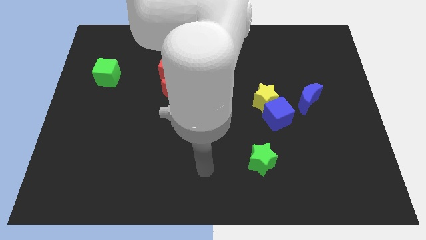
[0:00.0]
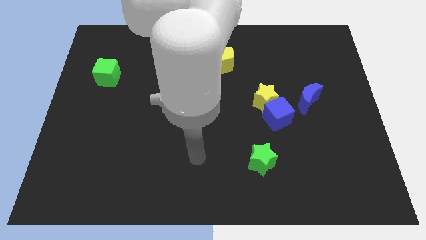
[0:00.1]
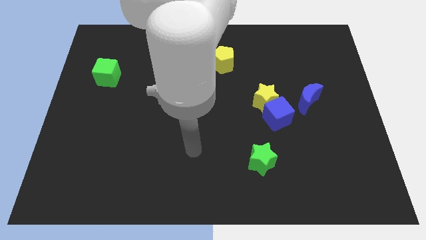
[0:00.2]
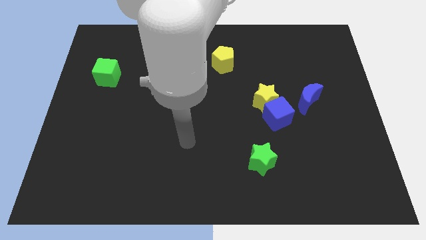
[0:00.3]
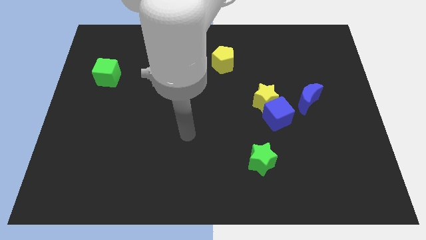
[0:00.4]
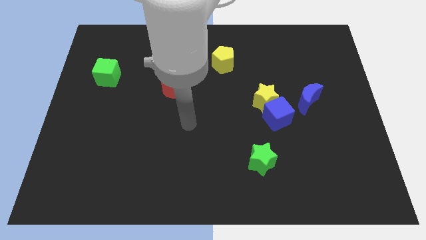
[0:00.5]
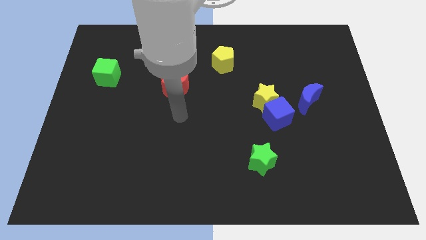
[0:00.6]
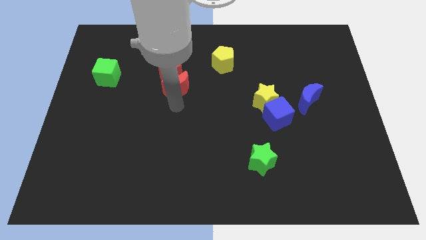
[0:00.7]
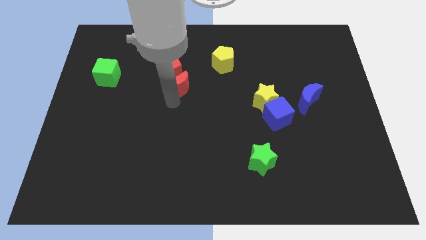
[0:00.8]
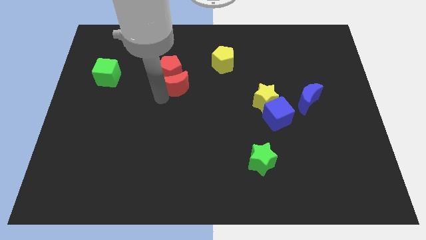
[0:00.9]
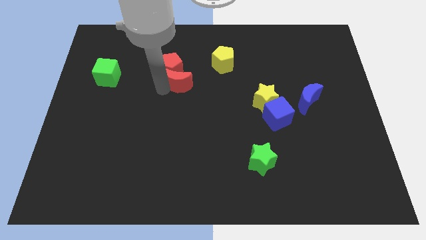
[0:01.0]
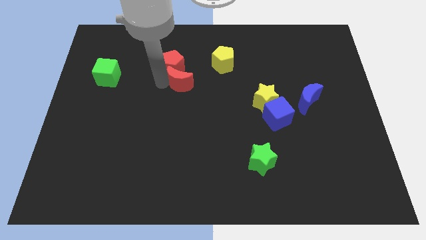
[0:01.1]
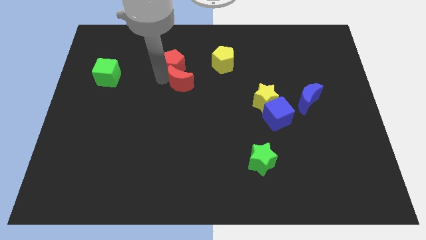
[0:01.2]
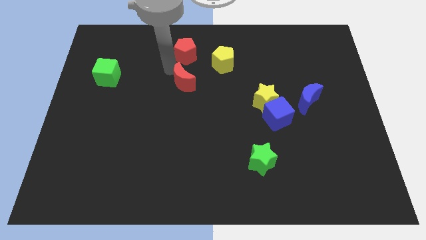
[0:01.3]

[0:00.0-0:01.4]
pull the red moon apart from the red pentagon

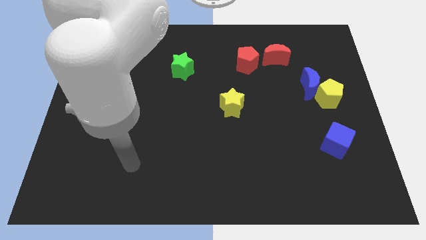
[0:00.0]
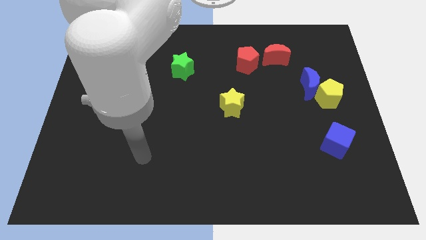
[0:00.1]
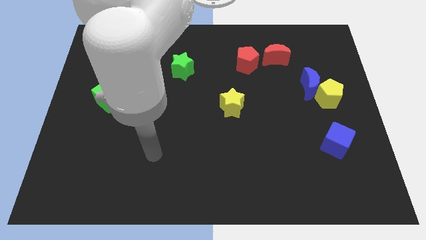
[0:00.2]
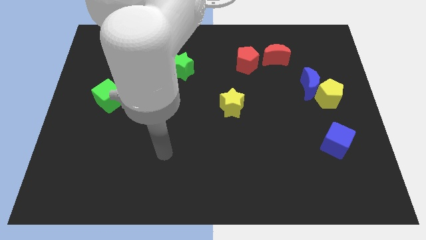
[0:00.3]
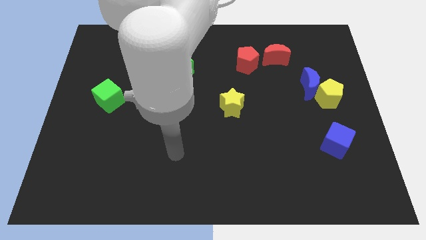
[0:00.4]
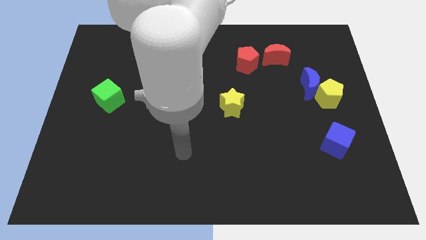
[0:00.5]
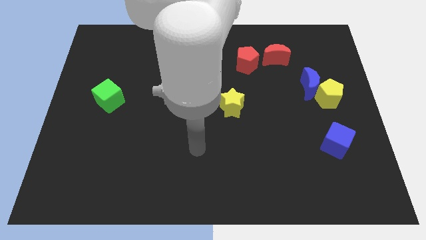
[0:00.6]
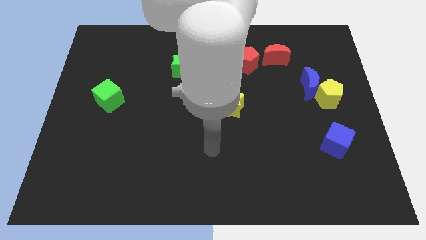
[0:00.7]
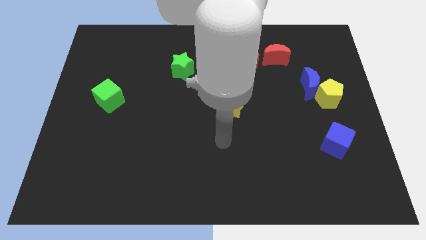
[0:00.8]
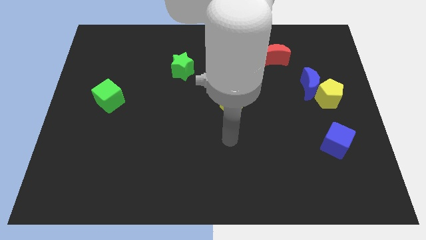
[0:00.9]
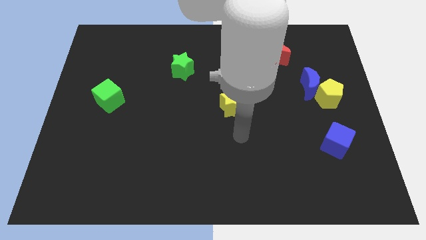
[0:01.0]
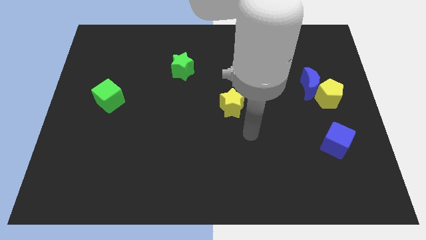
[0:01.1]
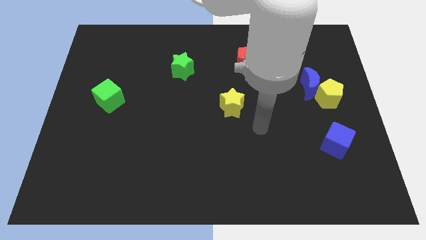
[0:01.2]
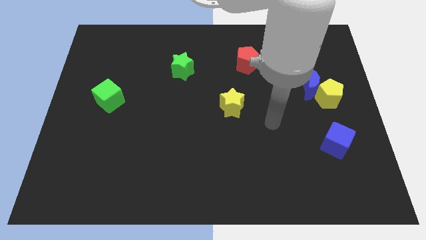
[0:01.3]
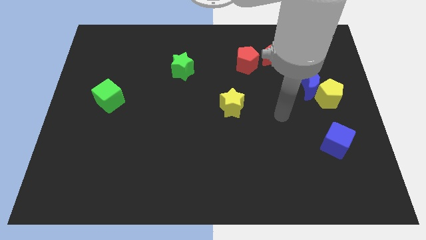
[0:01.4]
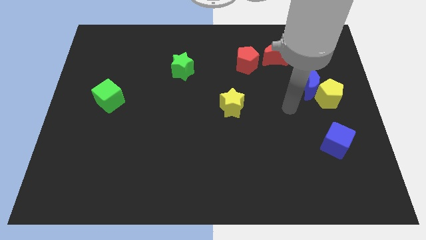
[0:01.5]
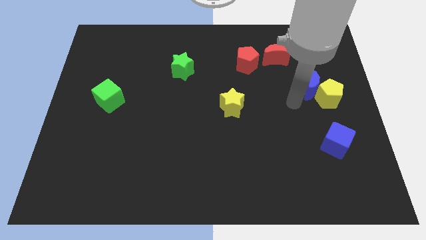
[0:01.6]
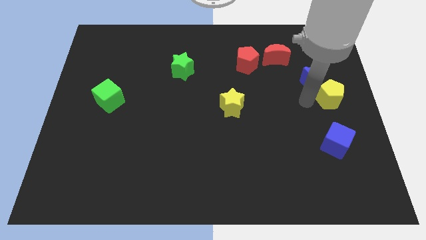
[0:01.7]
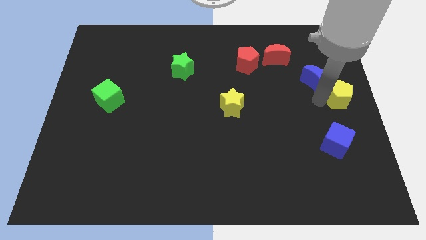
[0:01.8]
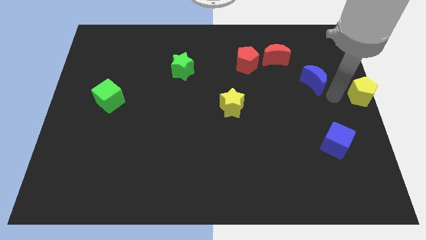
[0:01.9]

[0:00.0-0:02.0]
move the blue moon away from the yellow pentagon

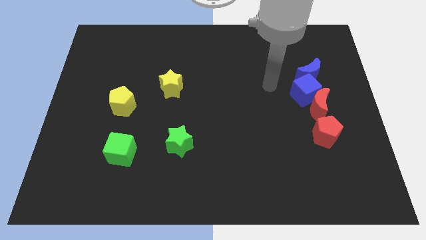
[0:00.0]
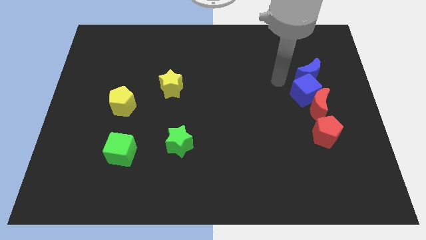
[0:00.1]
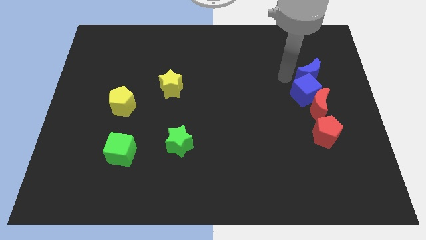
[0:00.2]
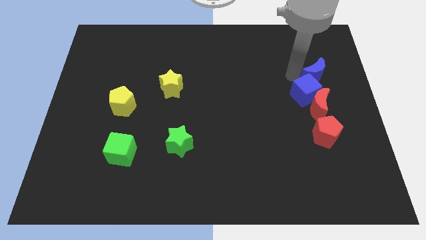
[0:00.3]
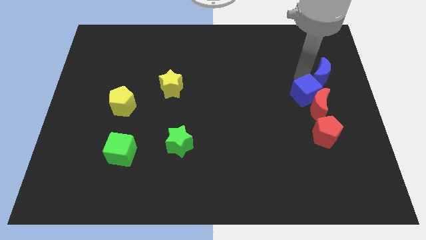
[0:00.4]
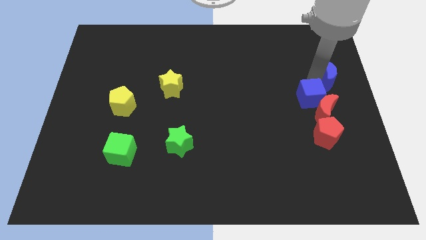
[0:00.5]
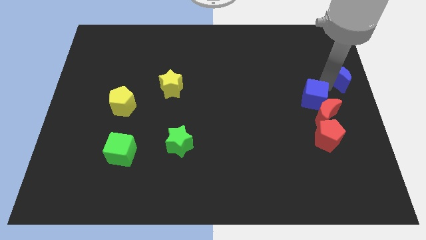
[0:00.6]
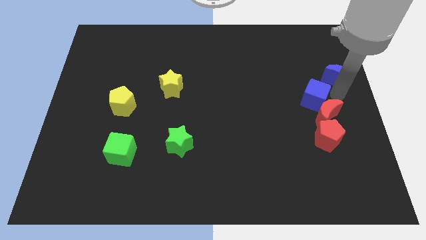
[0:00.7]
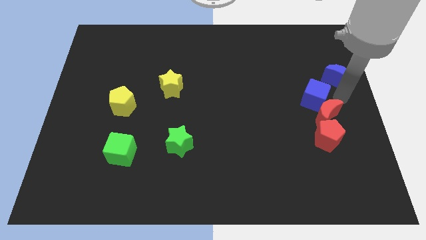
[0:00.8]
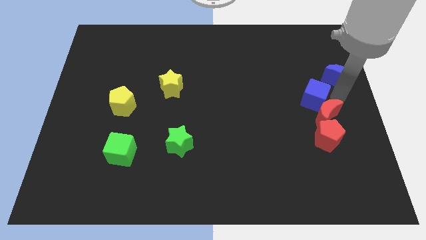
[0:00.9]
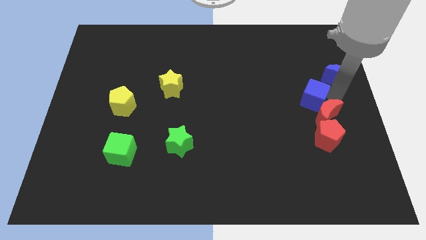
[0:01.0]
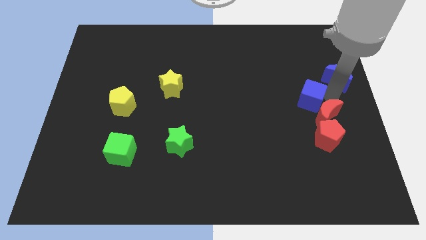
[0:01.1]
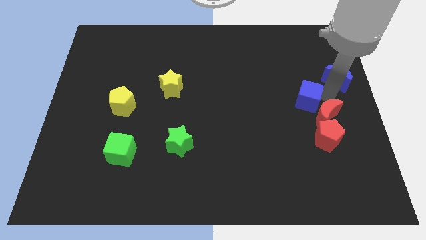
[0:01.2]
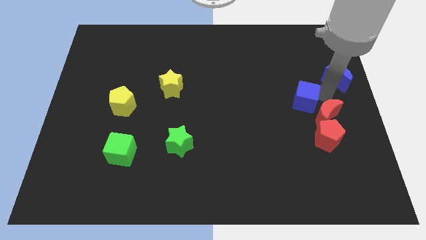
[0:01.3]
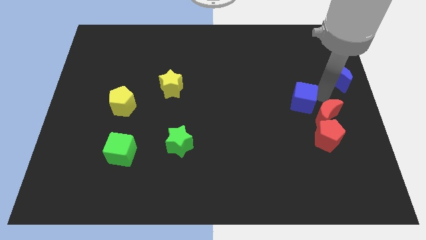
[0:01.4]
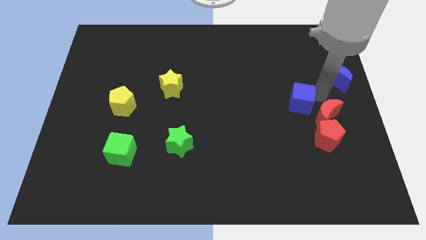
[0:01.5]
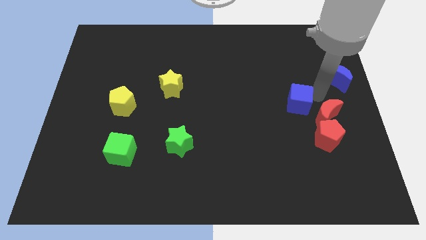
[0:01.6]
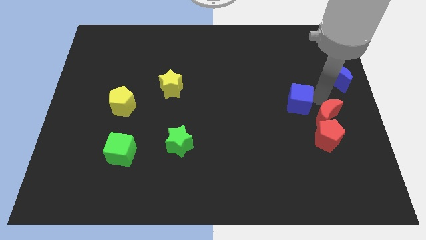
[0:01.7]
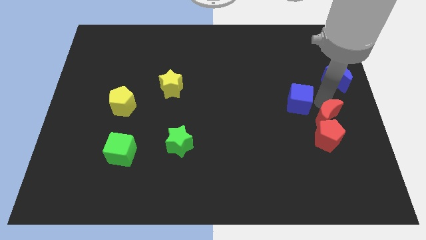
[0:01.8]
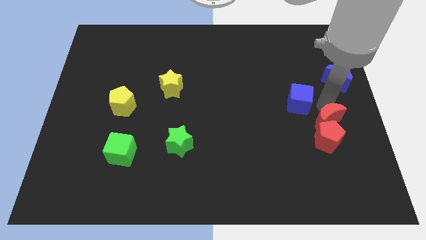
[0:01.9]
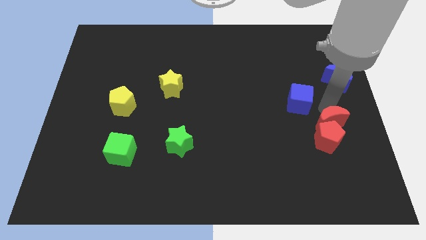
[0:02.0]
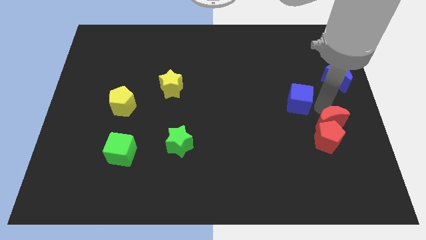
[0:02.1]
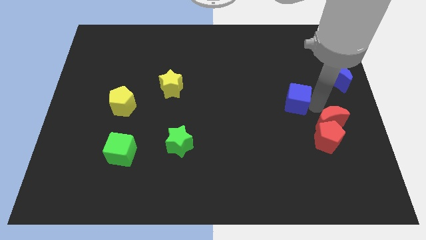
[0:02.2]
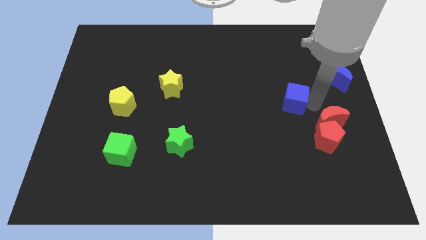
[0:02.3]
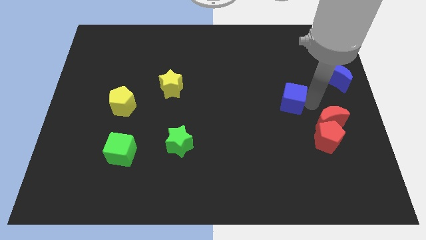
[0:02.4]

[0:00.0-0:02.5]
pull the blue cube apart from the red moon and blue moon

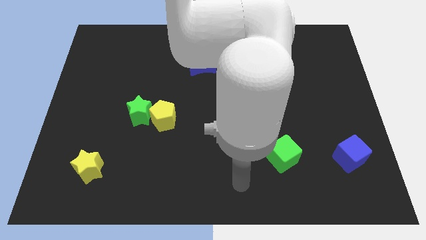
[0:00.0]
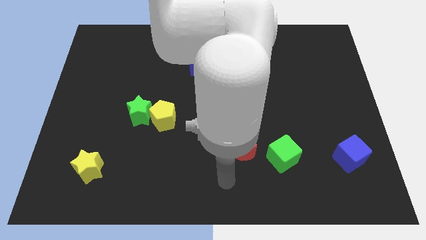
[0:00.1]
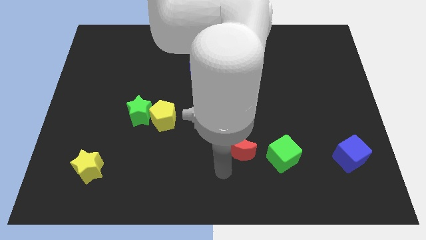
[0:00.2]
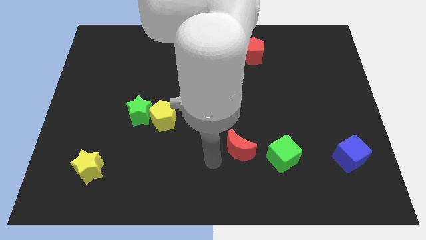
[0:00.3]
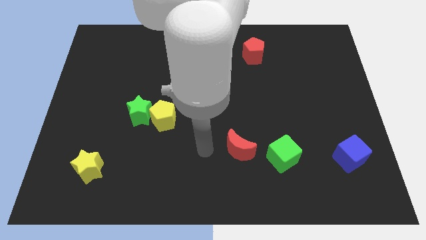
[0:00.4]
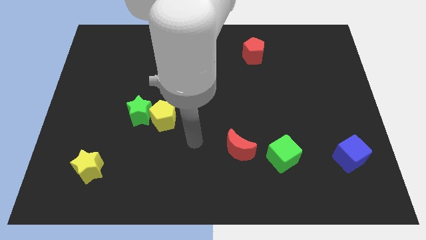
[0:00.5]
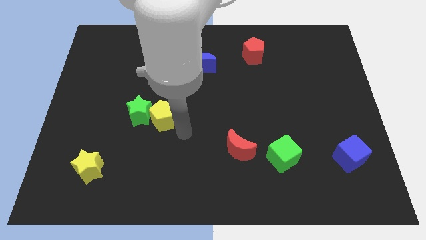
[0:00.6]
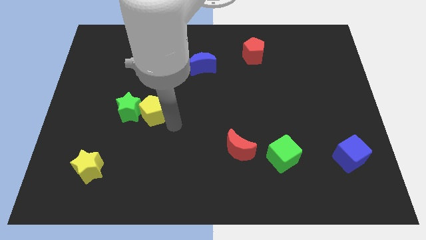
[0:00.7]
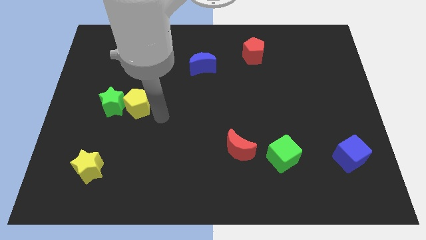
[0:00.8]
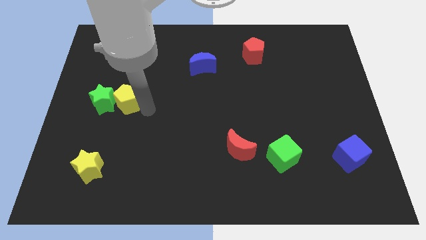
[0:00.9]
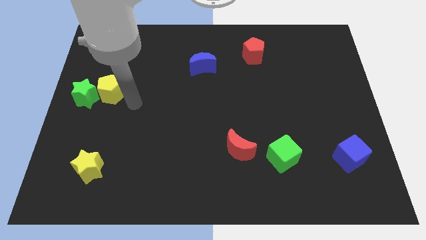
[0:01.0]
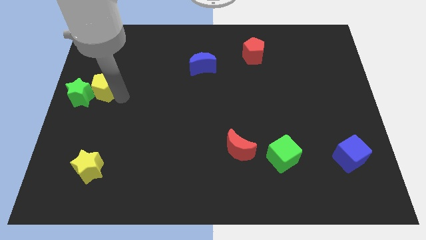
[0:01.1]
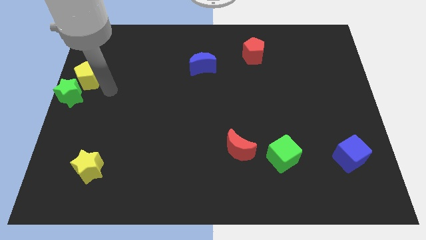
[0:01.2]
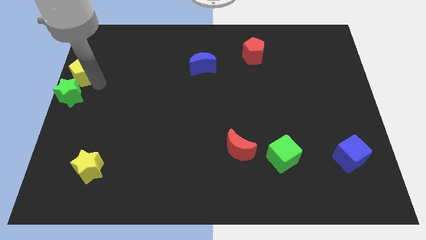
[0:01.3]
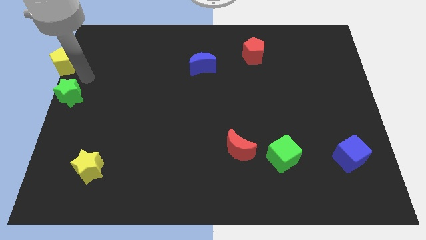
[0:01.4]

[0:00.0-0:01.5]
separate the green star from the yellow pentagon

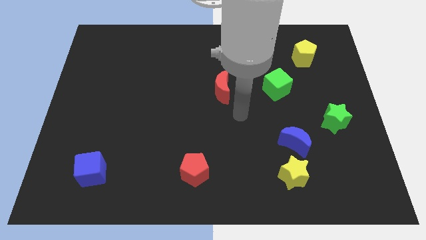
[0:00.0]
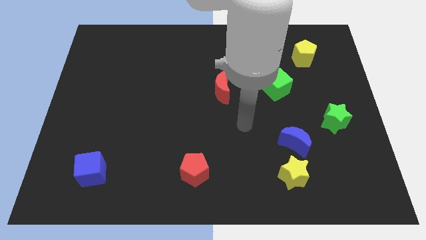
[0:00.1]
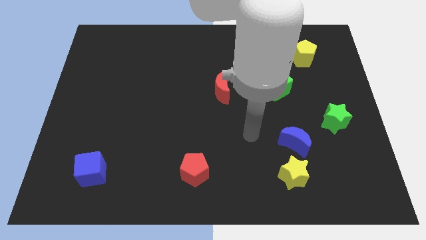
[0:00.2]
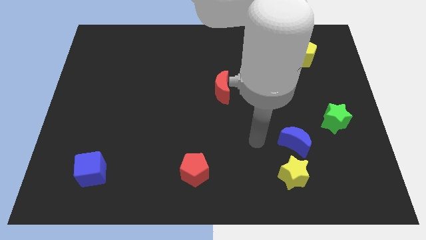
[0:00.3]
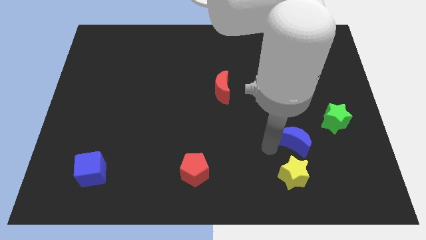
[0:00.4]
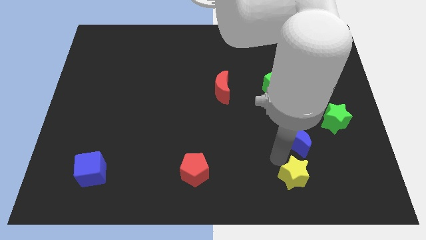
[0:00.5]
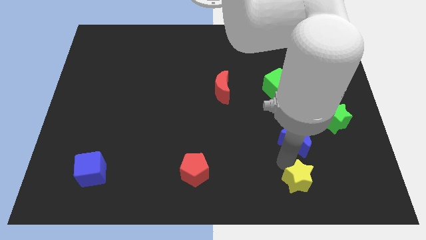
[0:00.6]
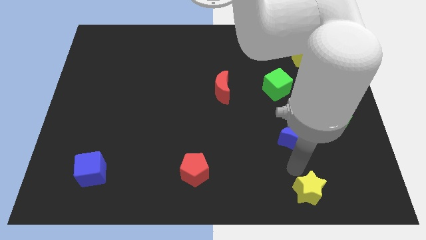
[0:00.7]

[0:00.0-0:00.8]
separate the blue moon from the yellow star

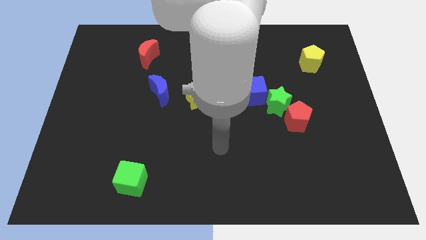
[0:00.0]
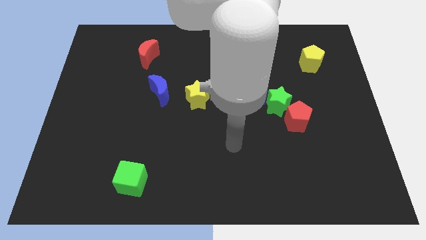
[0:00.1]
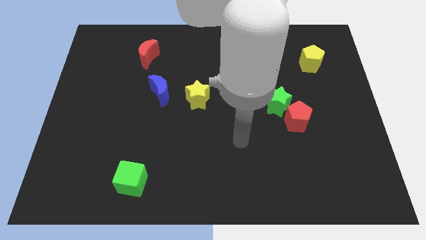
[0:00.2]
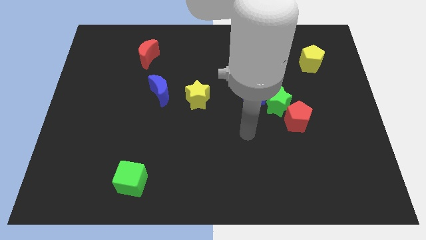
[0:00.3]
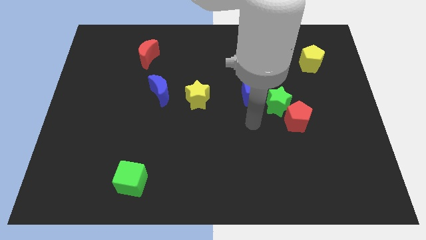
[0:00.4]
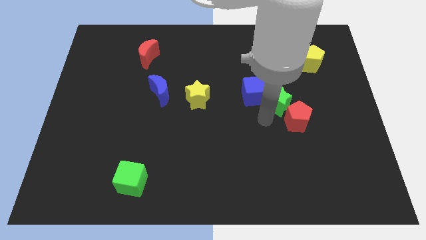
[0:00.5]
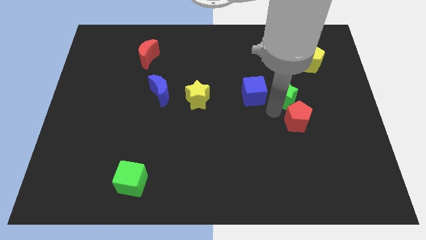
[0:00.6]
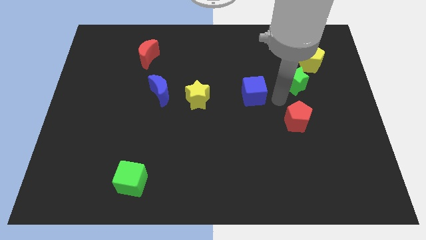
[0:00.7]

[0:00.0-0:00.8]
separate the blue cube from the green star

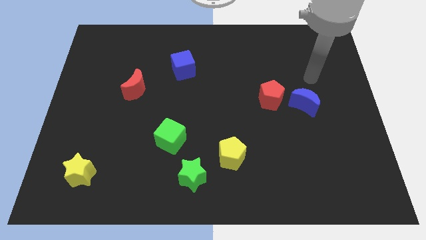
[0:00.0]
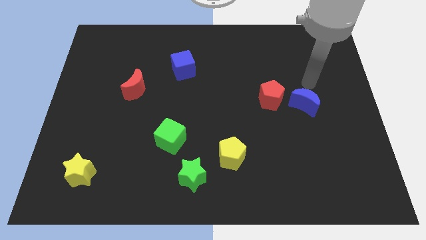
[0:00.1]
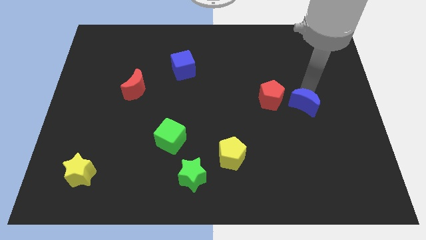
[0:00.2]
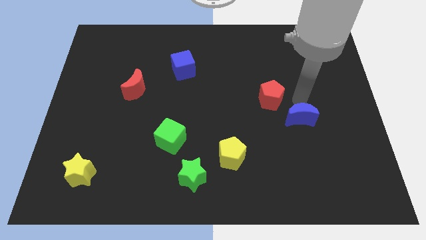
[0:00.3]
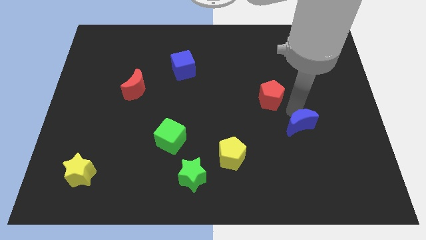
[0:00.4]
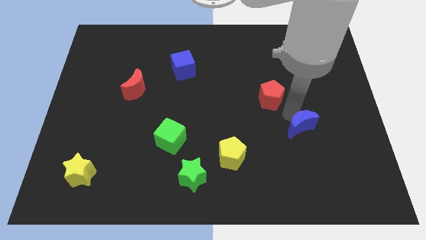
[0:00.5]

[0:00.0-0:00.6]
separate the red pentagon from the blue moon
